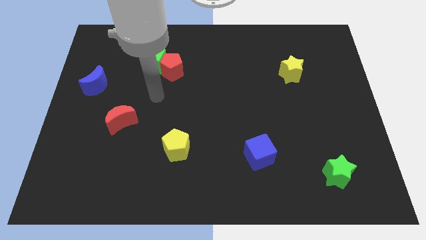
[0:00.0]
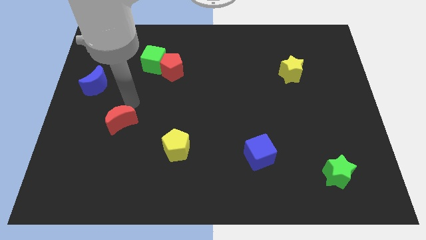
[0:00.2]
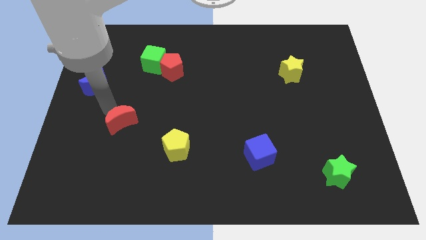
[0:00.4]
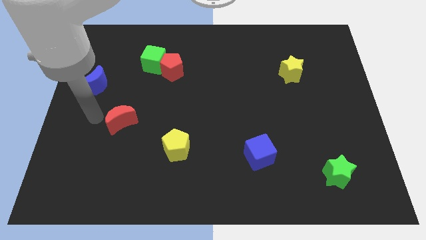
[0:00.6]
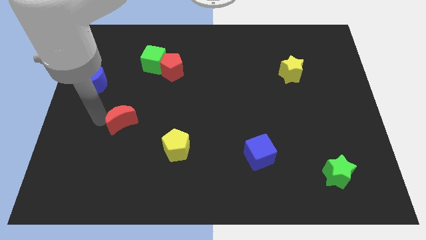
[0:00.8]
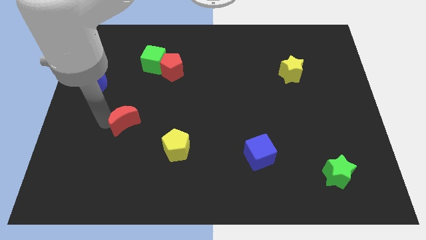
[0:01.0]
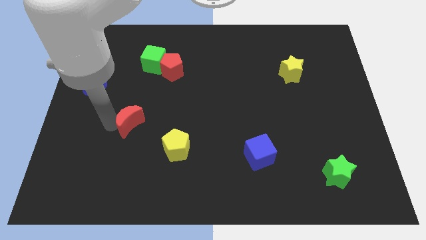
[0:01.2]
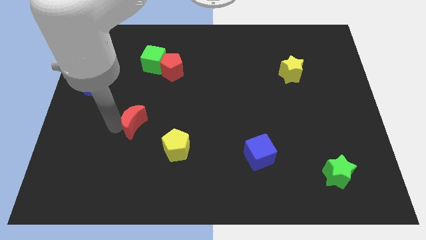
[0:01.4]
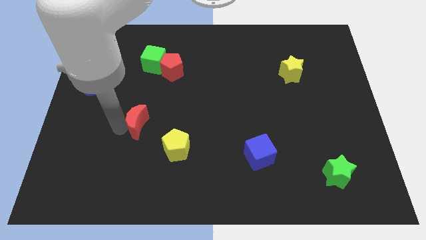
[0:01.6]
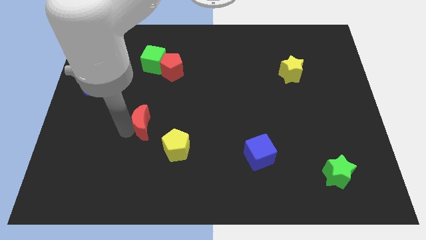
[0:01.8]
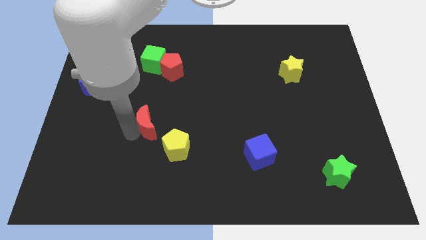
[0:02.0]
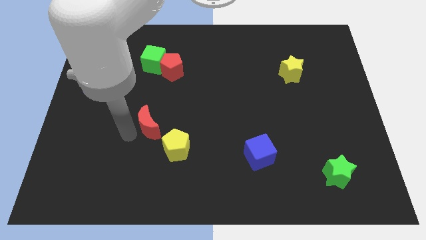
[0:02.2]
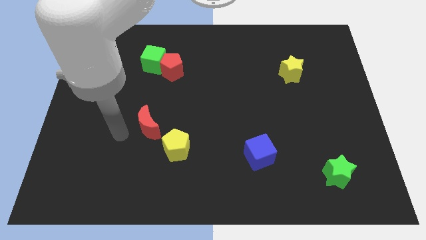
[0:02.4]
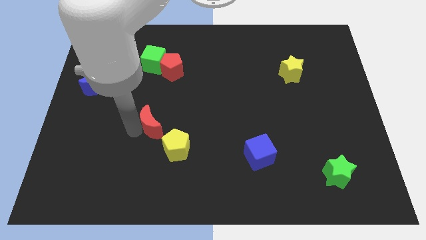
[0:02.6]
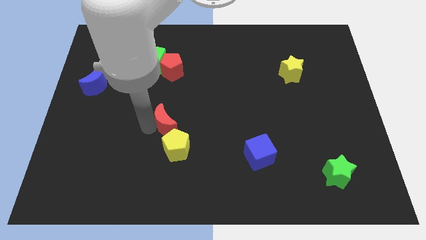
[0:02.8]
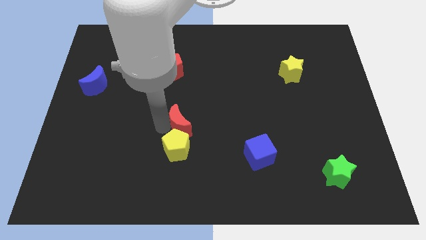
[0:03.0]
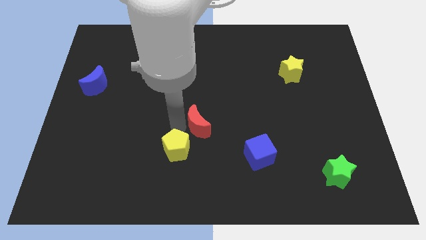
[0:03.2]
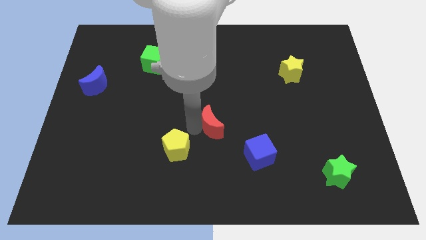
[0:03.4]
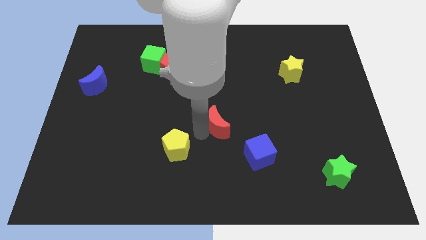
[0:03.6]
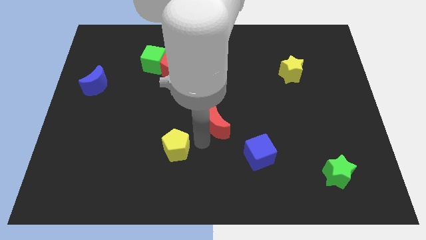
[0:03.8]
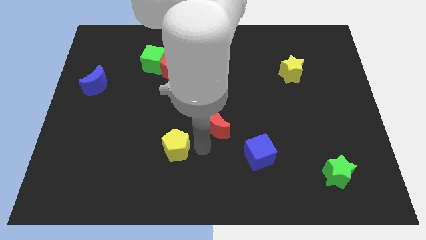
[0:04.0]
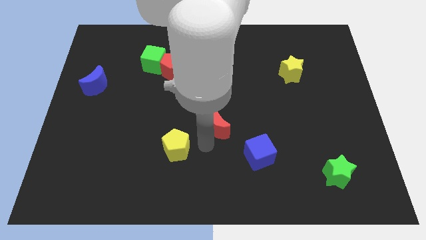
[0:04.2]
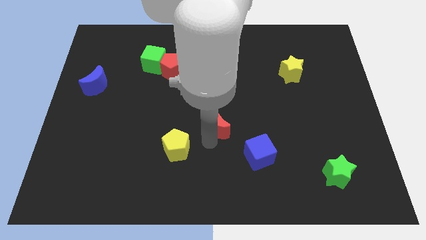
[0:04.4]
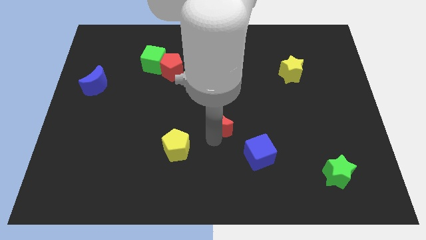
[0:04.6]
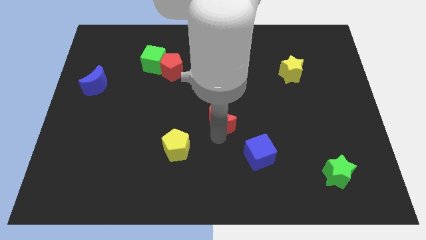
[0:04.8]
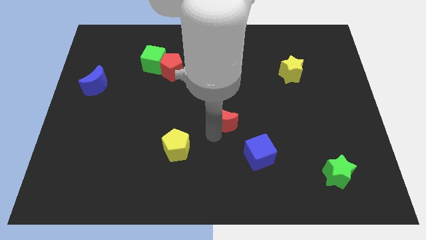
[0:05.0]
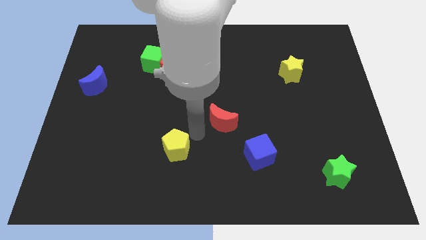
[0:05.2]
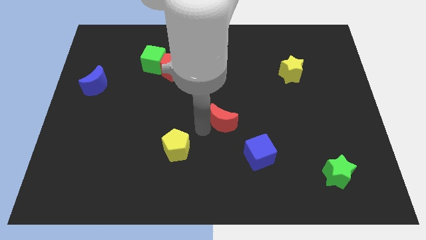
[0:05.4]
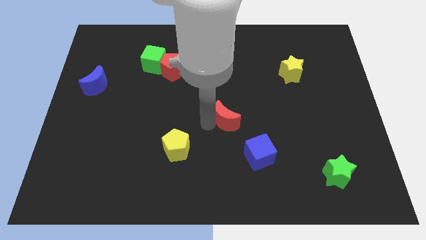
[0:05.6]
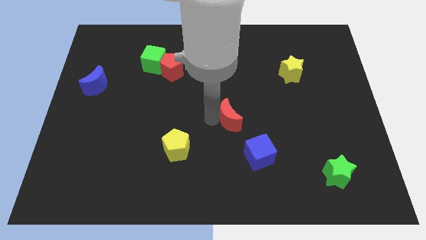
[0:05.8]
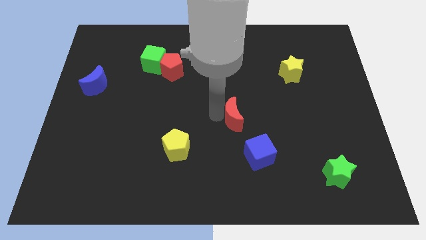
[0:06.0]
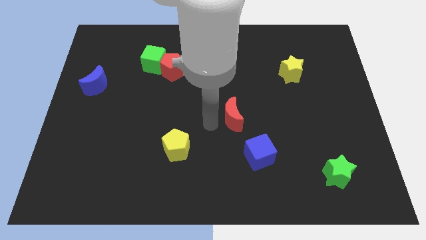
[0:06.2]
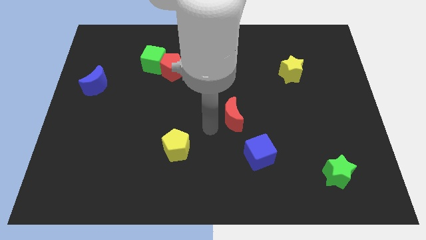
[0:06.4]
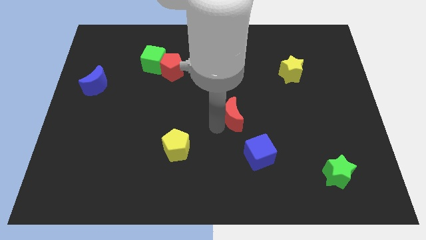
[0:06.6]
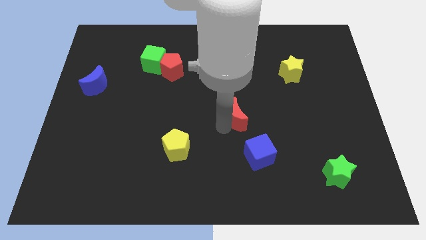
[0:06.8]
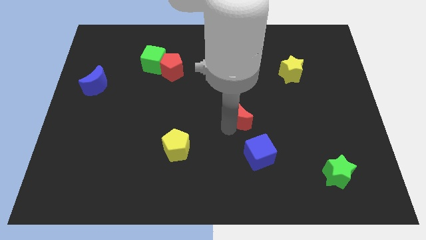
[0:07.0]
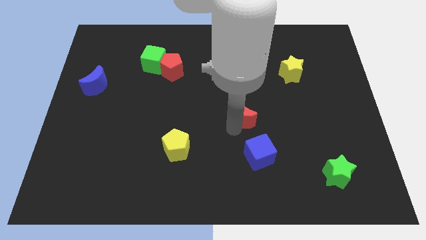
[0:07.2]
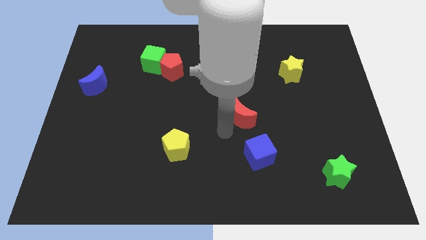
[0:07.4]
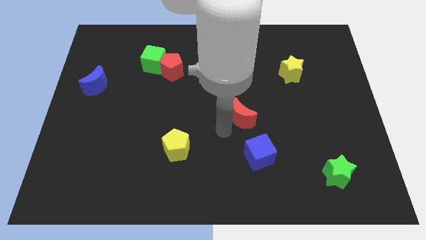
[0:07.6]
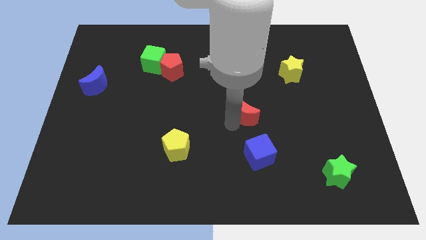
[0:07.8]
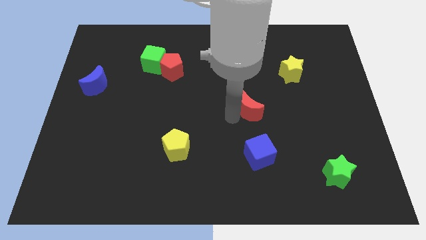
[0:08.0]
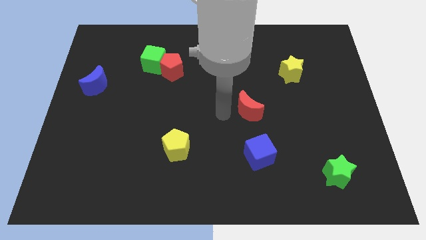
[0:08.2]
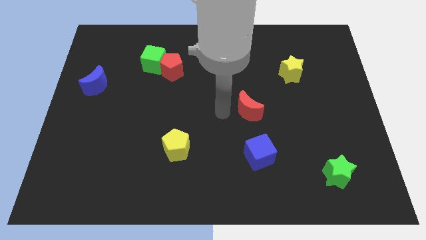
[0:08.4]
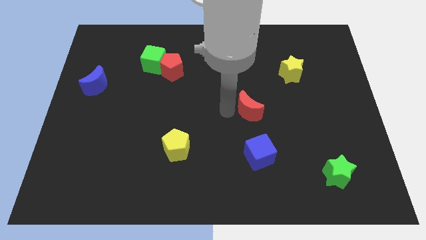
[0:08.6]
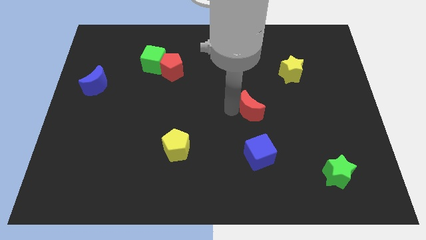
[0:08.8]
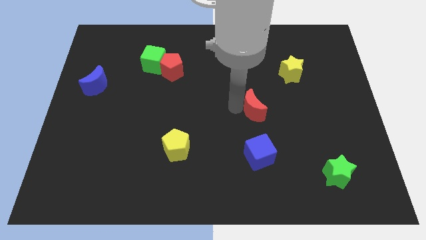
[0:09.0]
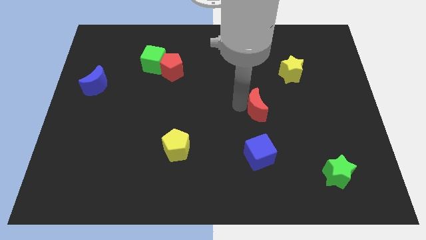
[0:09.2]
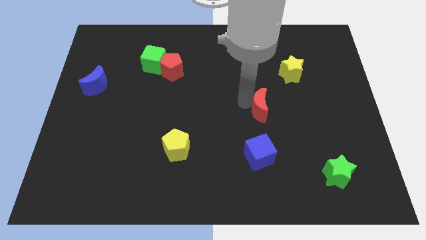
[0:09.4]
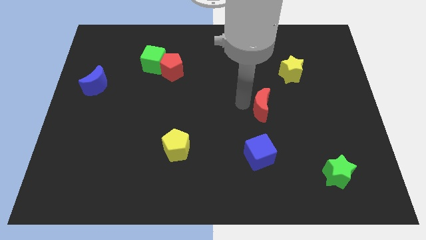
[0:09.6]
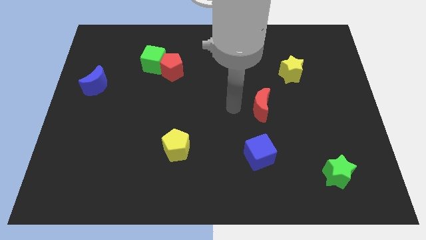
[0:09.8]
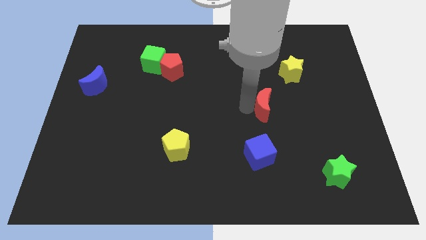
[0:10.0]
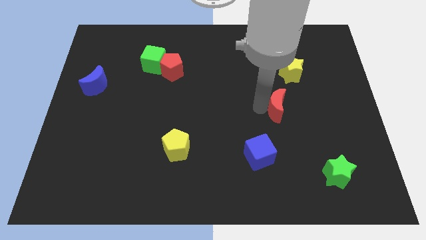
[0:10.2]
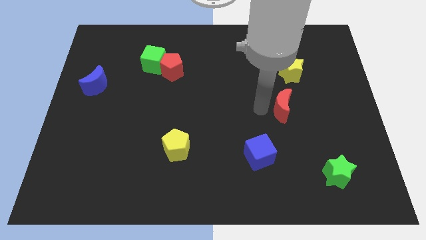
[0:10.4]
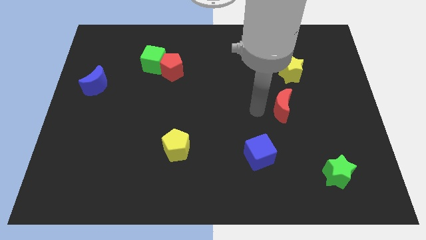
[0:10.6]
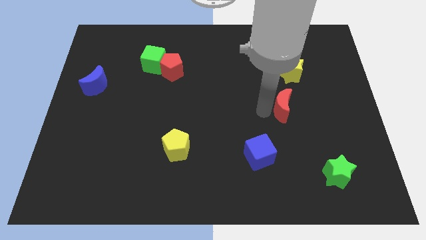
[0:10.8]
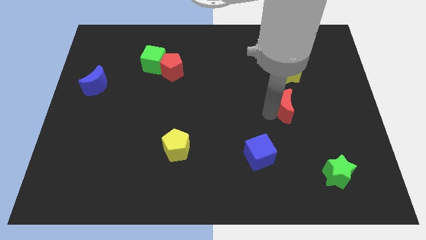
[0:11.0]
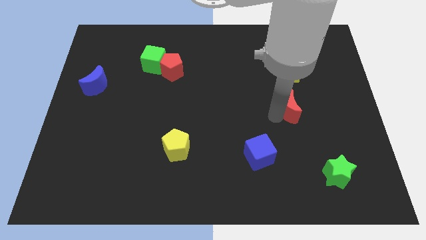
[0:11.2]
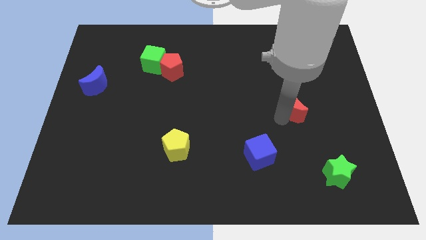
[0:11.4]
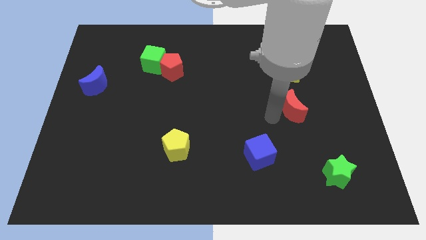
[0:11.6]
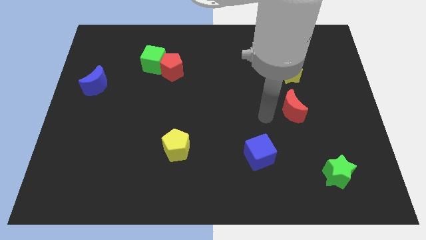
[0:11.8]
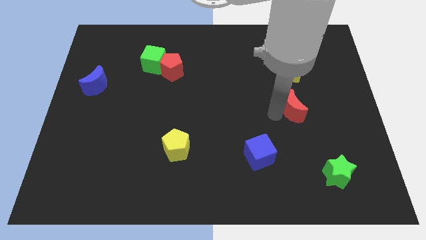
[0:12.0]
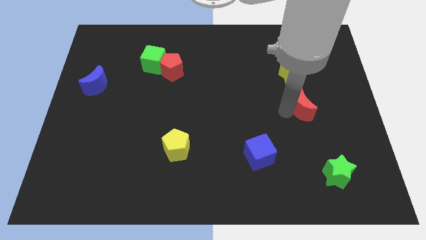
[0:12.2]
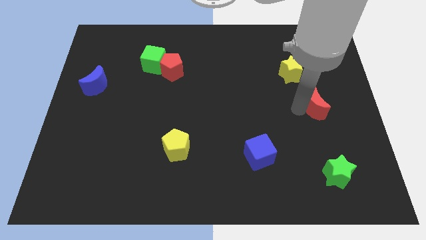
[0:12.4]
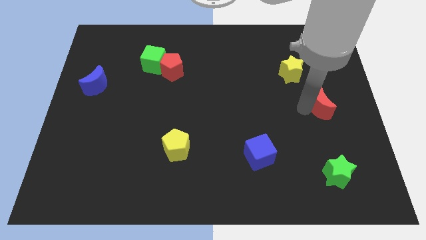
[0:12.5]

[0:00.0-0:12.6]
push the red moon to the right side of the board
